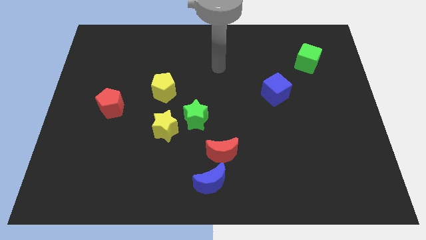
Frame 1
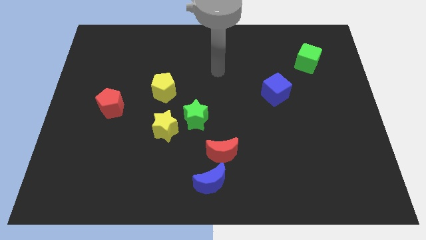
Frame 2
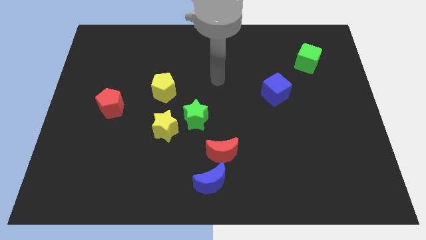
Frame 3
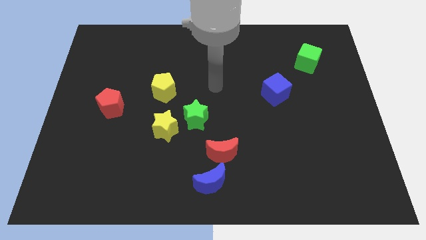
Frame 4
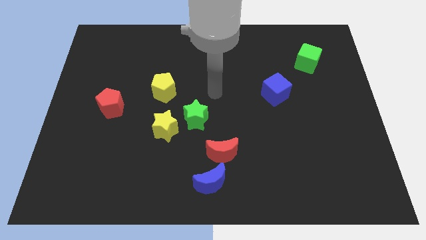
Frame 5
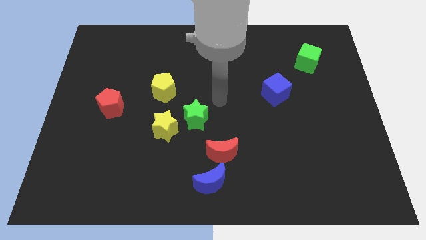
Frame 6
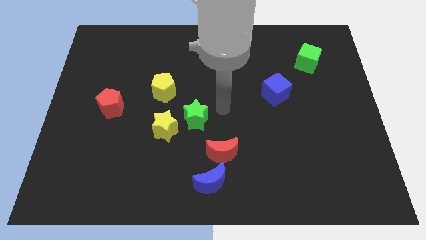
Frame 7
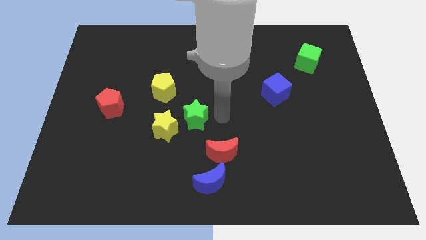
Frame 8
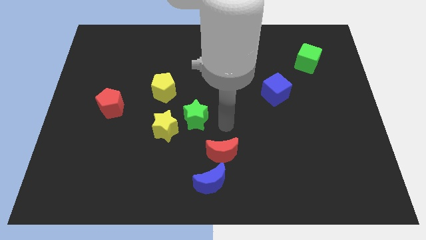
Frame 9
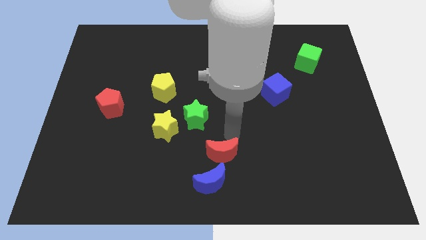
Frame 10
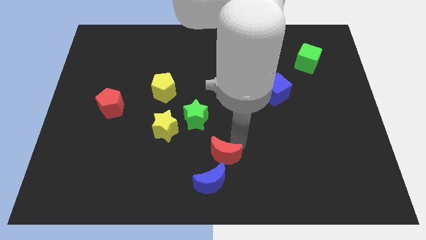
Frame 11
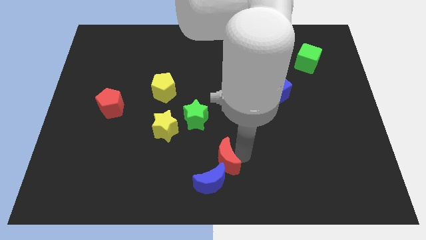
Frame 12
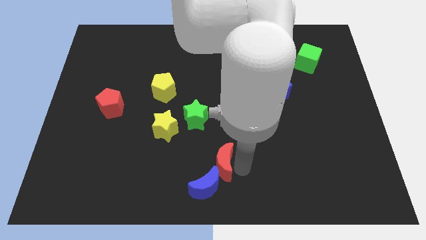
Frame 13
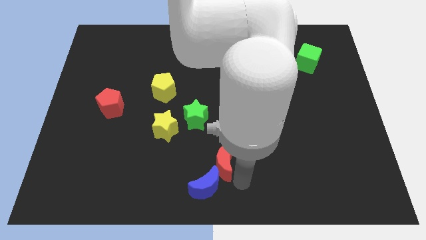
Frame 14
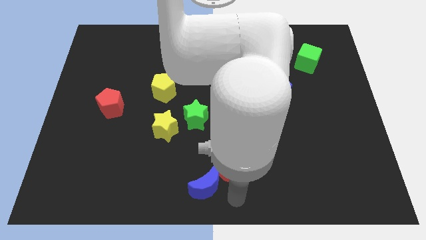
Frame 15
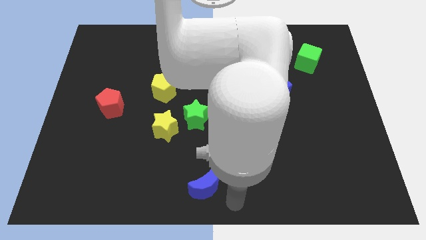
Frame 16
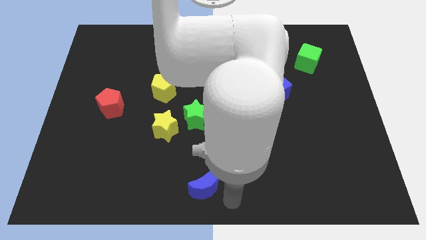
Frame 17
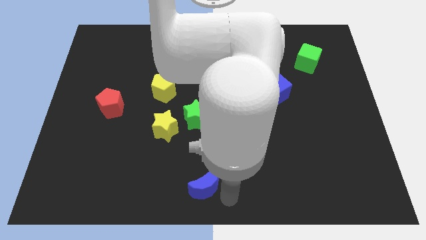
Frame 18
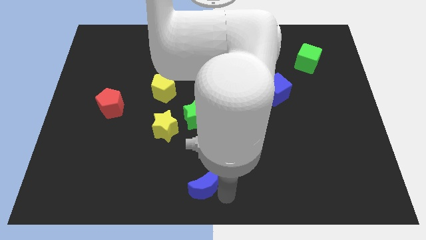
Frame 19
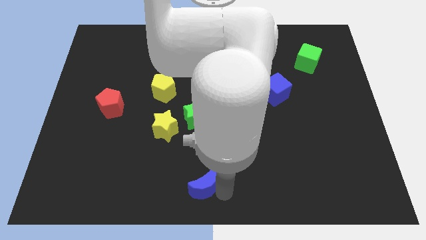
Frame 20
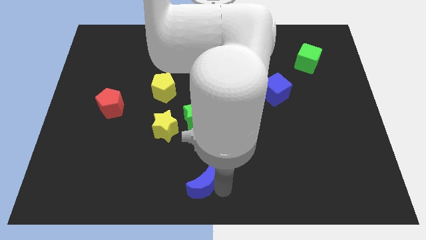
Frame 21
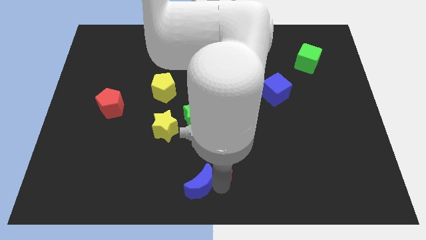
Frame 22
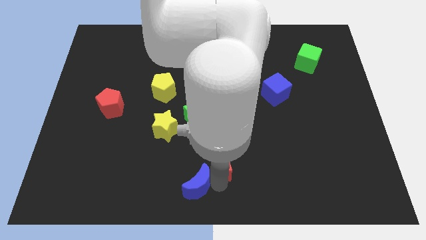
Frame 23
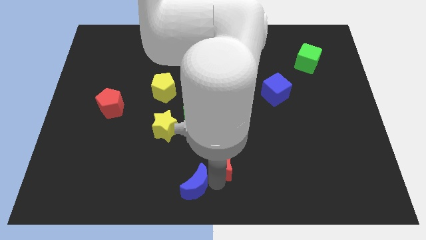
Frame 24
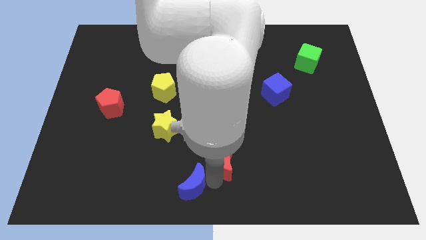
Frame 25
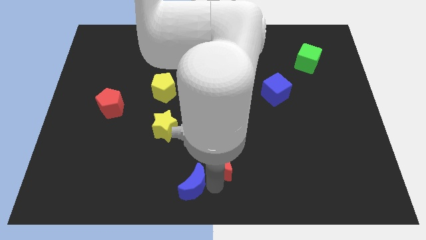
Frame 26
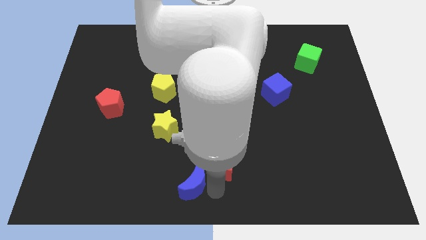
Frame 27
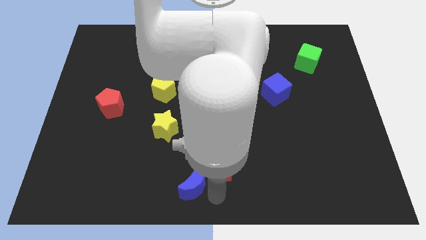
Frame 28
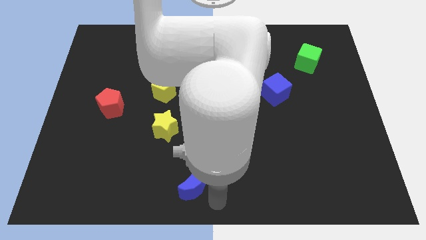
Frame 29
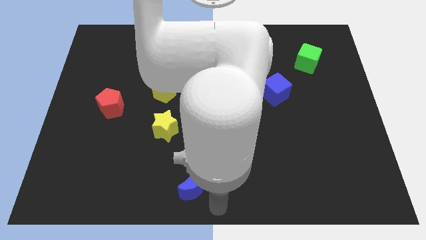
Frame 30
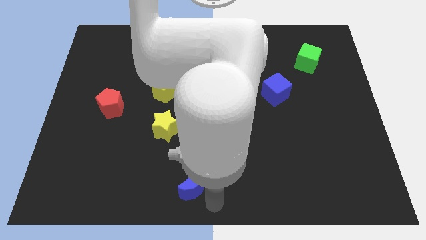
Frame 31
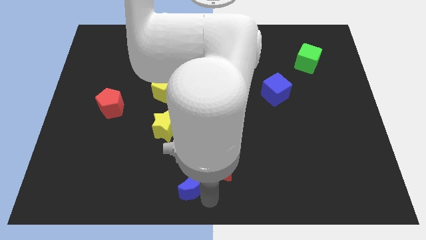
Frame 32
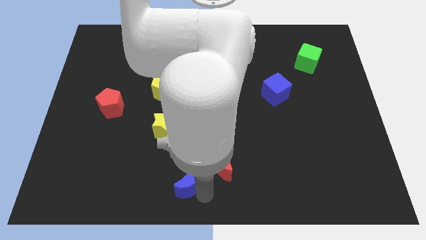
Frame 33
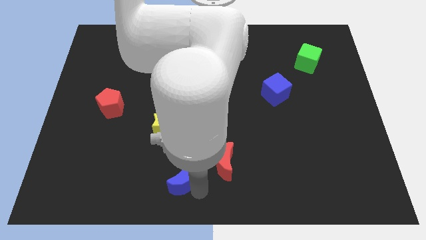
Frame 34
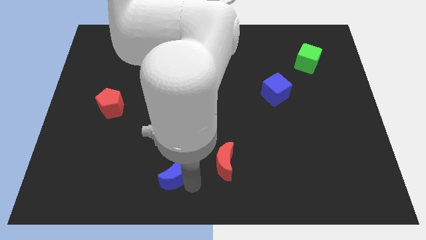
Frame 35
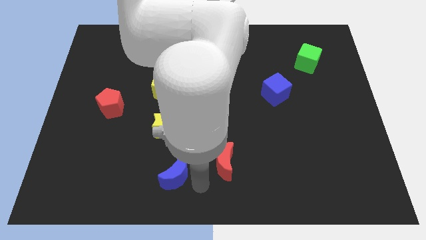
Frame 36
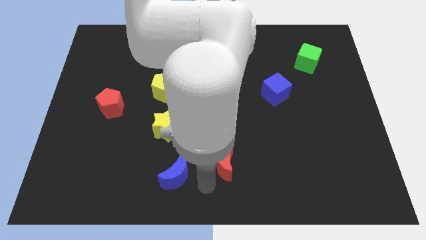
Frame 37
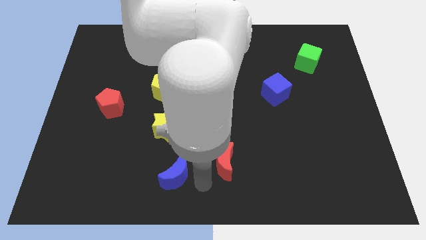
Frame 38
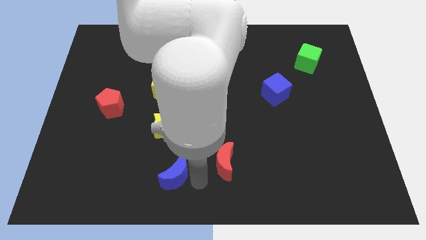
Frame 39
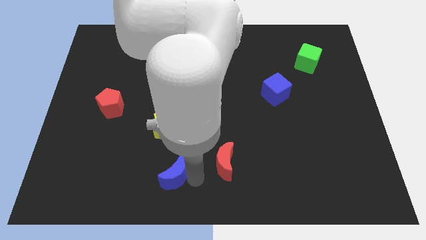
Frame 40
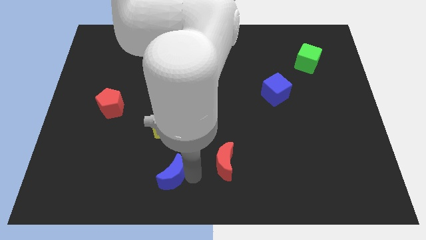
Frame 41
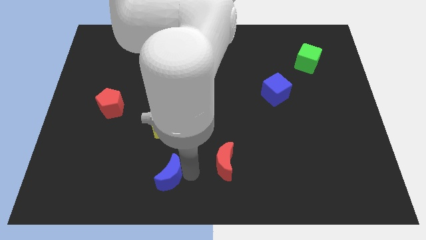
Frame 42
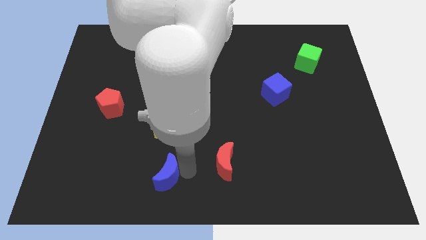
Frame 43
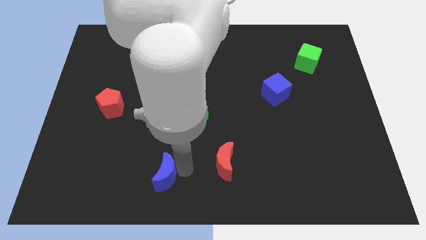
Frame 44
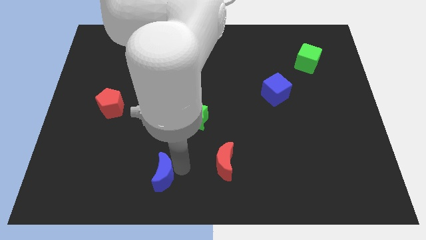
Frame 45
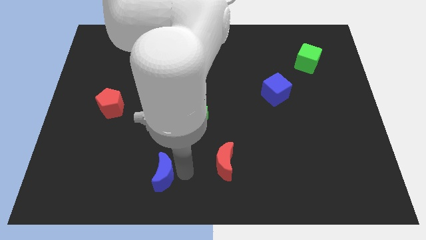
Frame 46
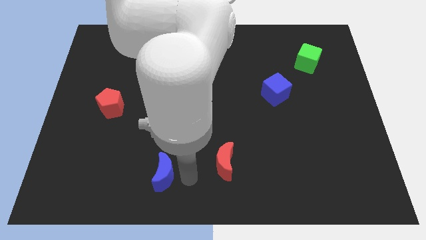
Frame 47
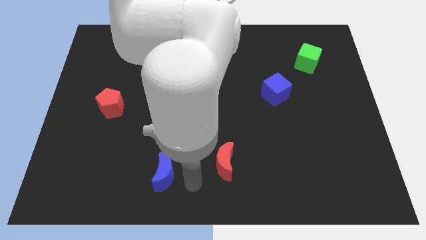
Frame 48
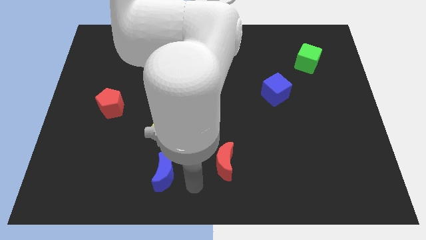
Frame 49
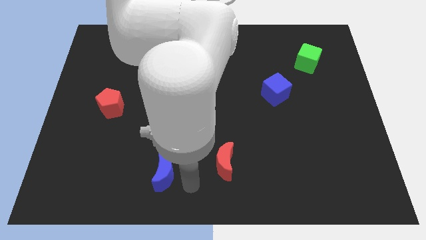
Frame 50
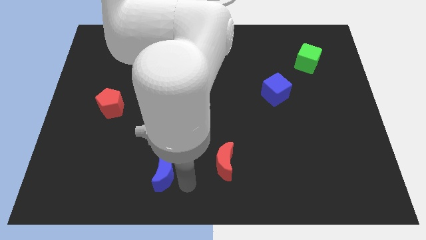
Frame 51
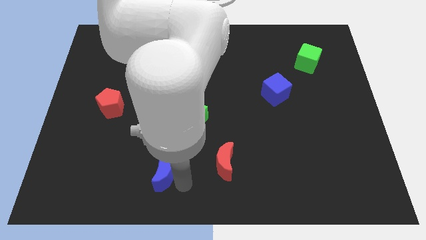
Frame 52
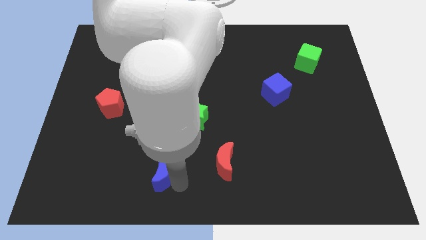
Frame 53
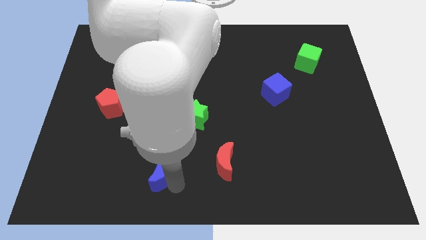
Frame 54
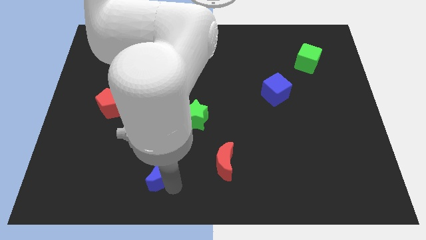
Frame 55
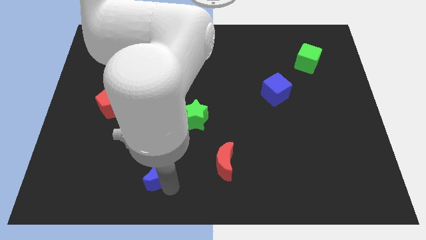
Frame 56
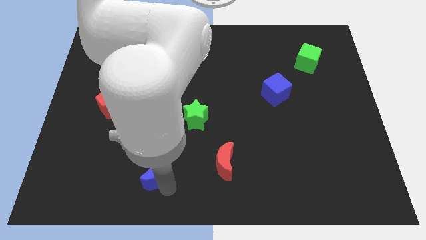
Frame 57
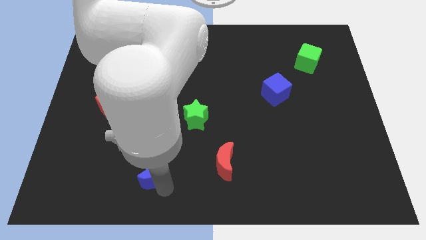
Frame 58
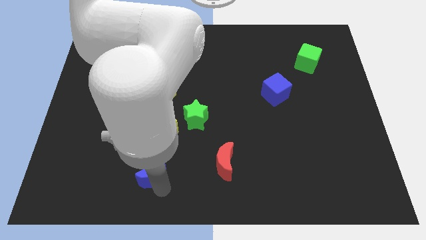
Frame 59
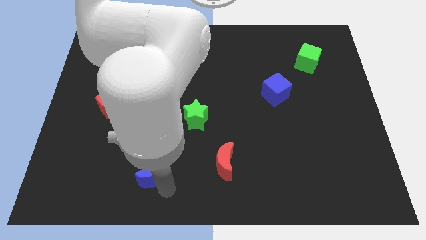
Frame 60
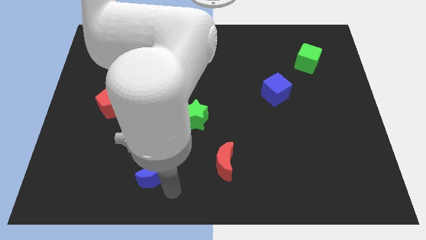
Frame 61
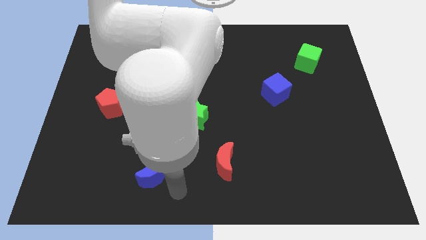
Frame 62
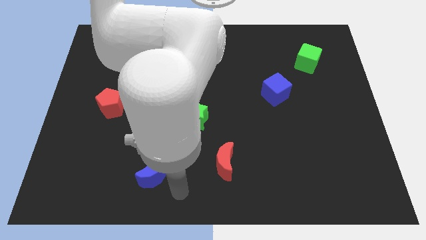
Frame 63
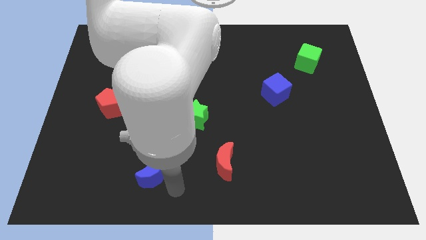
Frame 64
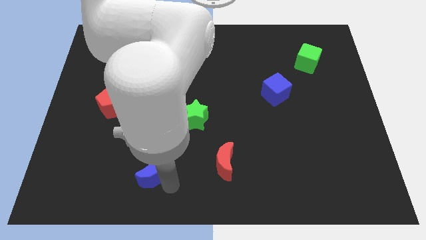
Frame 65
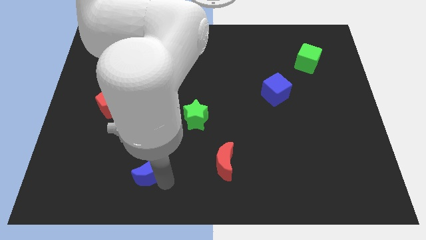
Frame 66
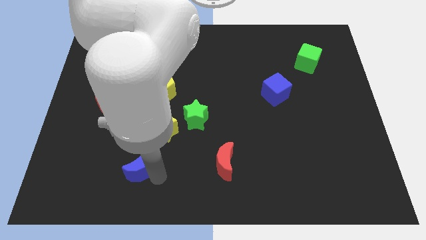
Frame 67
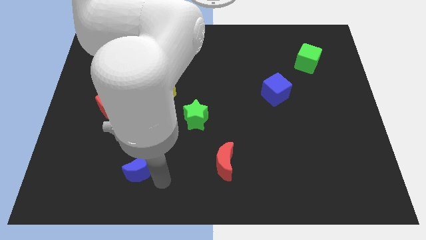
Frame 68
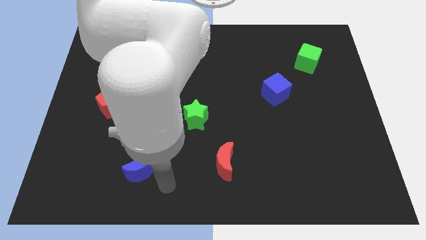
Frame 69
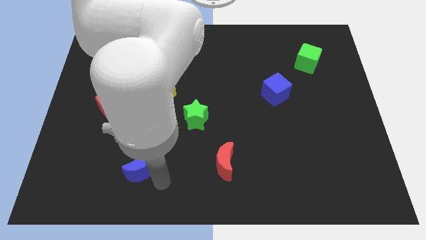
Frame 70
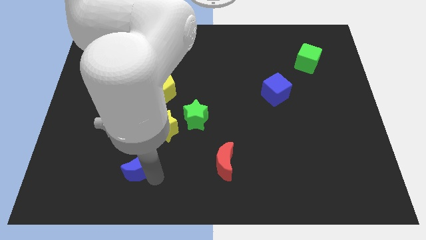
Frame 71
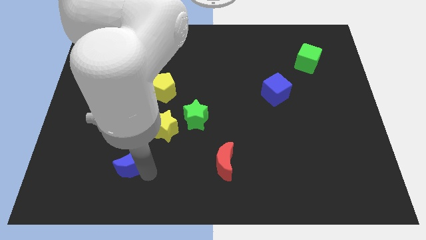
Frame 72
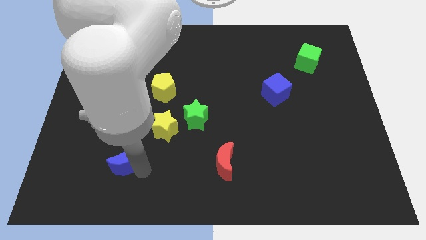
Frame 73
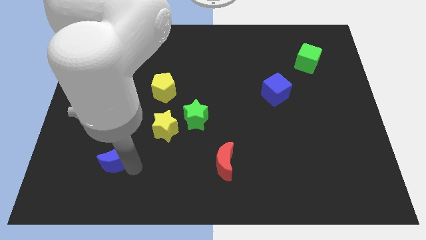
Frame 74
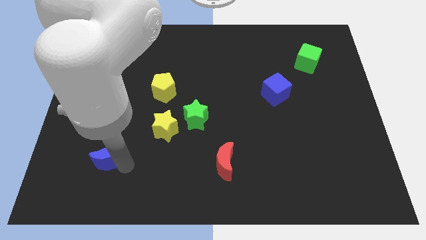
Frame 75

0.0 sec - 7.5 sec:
move the blue moon to the bottom side of the red pentagon
